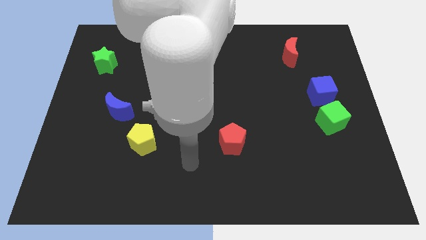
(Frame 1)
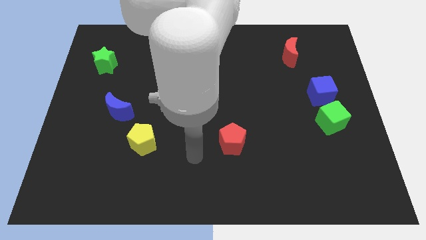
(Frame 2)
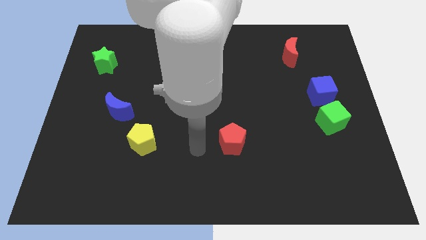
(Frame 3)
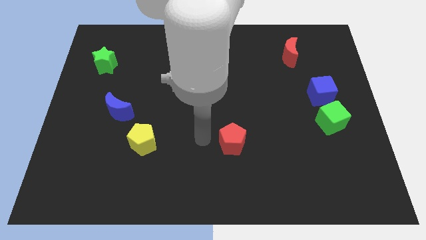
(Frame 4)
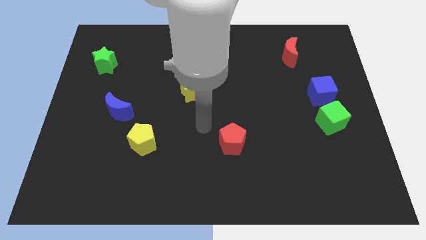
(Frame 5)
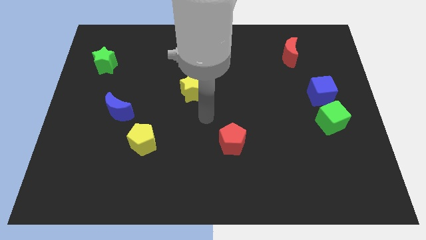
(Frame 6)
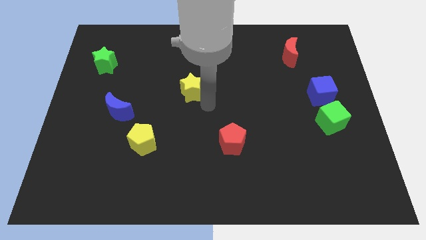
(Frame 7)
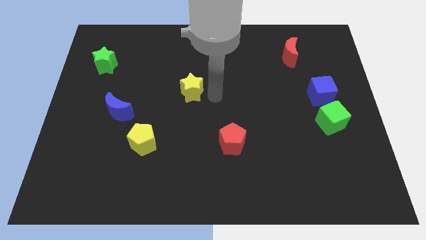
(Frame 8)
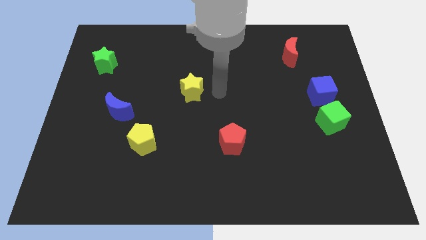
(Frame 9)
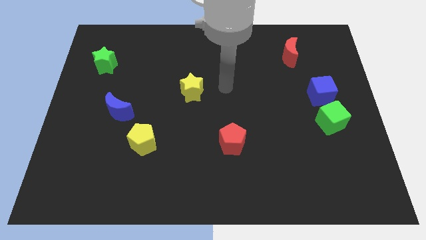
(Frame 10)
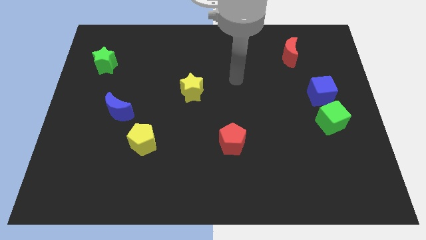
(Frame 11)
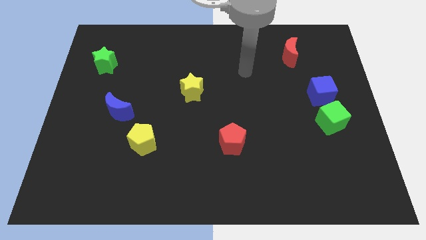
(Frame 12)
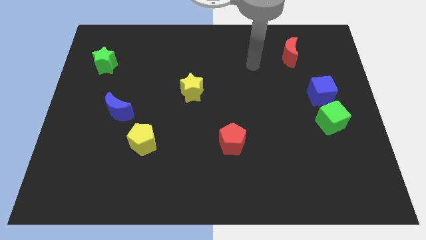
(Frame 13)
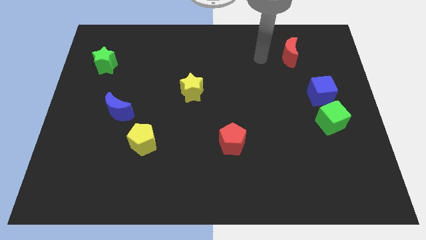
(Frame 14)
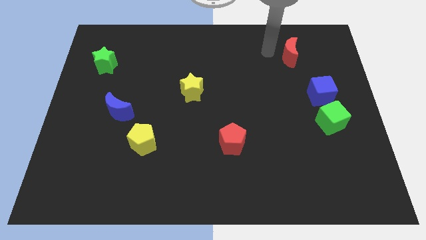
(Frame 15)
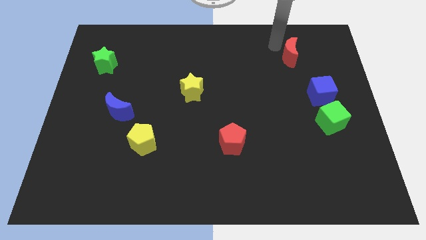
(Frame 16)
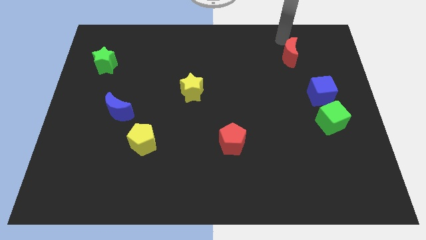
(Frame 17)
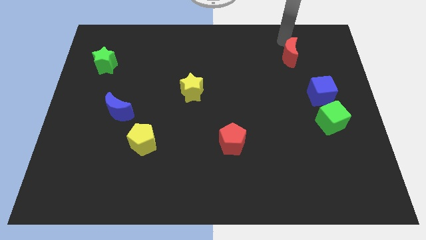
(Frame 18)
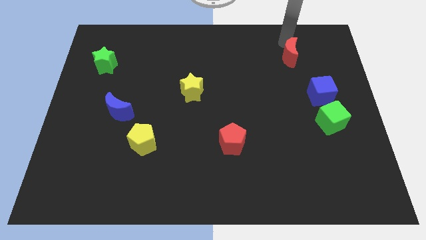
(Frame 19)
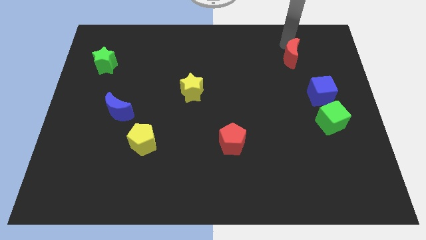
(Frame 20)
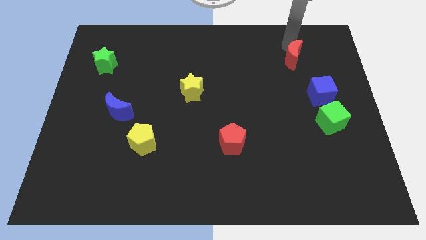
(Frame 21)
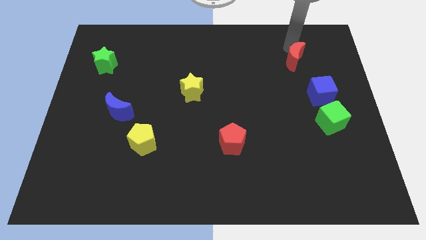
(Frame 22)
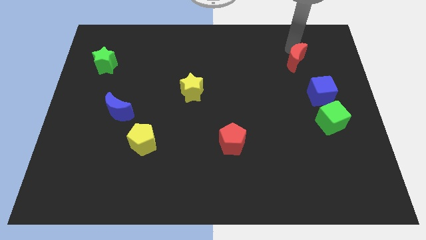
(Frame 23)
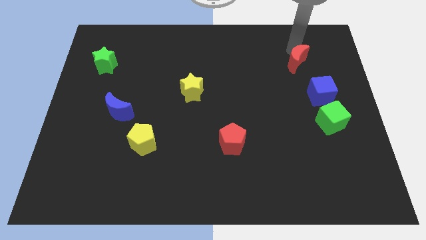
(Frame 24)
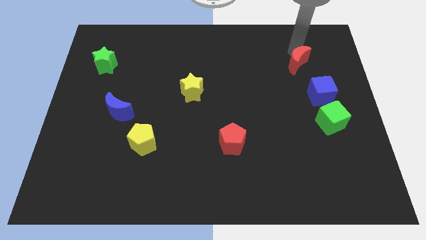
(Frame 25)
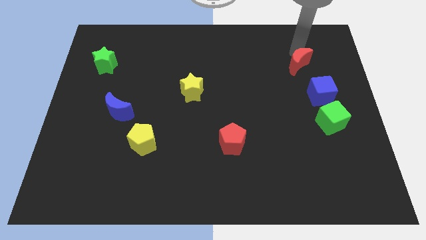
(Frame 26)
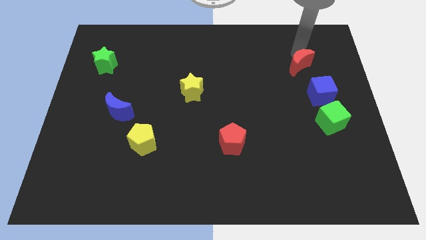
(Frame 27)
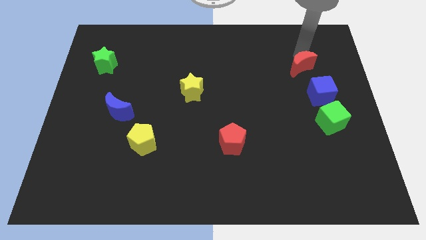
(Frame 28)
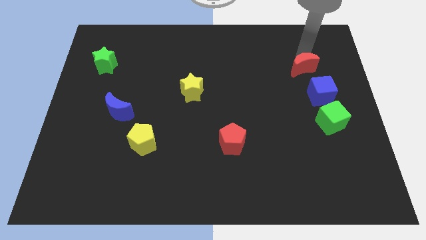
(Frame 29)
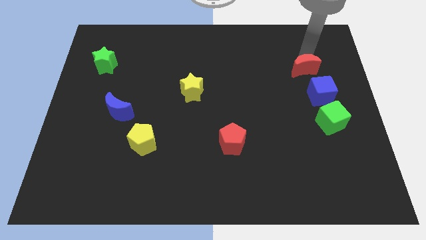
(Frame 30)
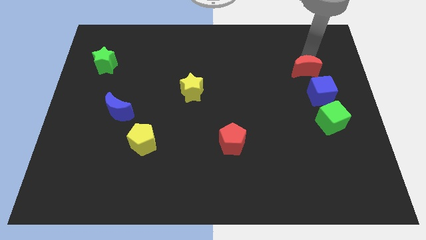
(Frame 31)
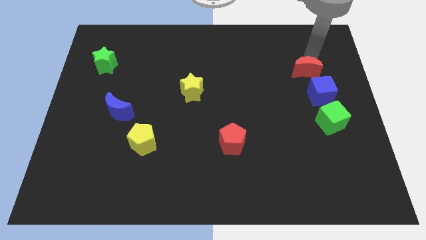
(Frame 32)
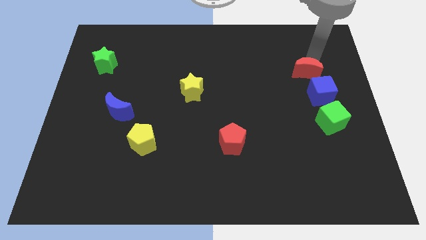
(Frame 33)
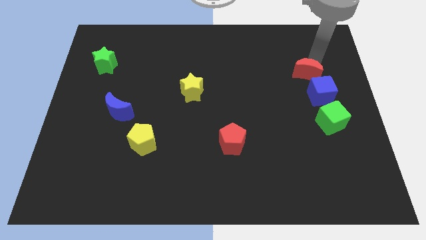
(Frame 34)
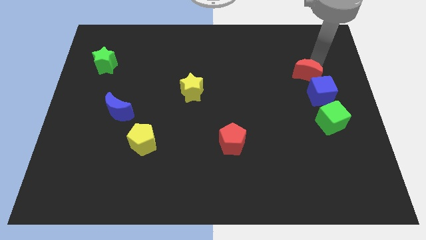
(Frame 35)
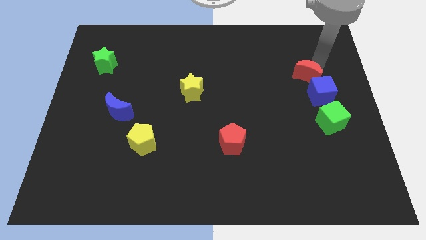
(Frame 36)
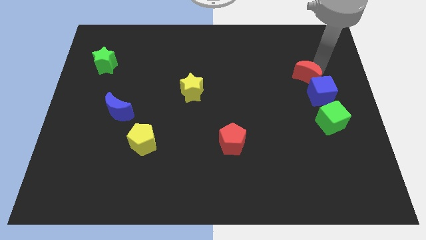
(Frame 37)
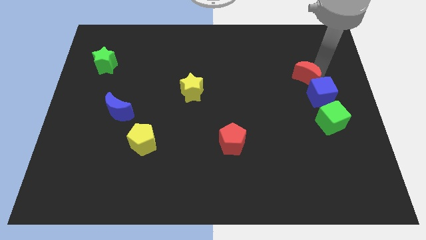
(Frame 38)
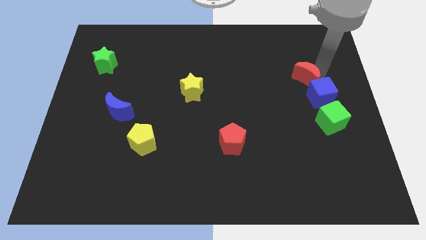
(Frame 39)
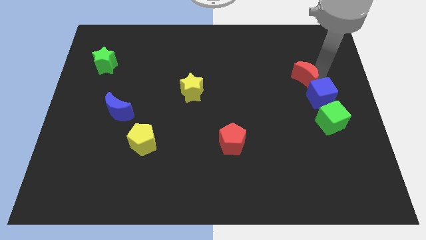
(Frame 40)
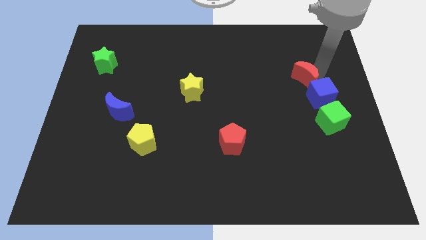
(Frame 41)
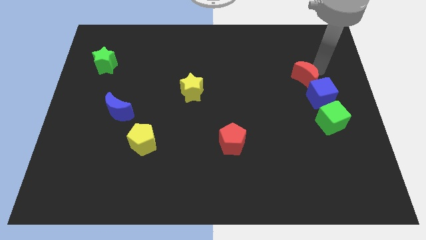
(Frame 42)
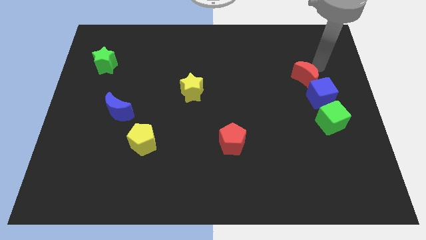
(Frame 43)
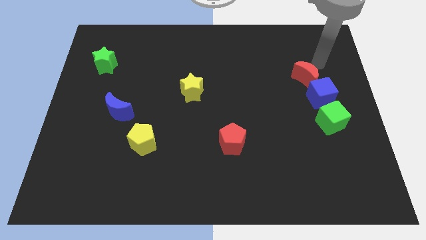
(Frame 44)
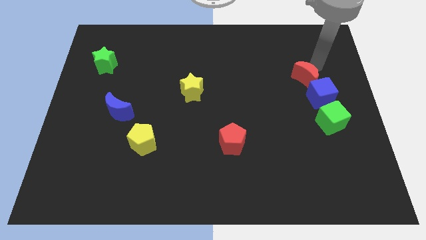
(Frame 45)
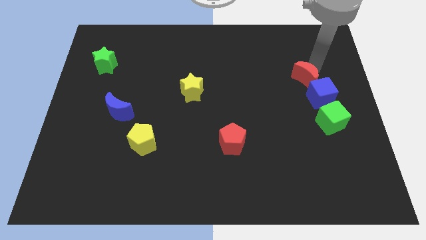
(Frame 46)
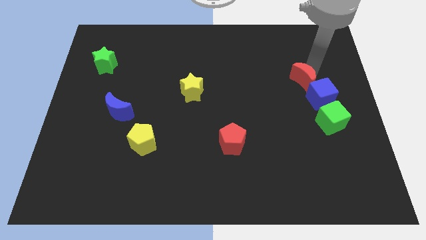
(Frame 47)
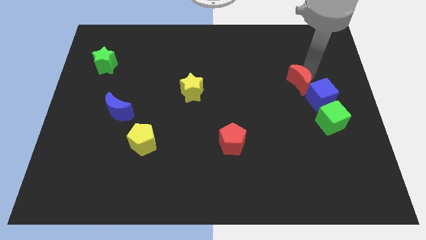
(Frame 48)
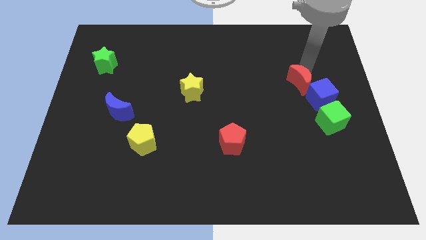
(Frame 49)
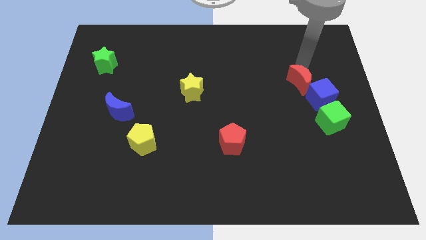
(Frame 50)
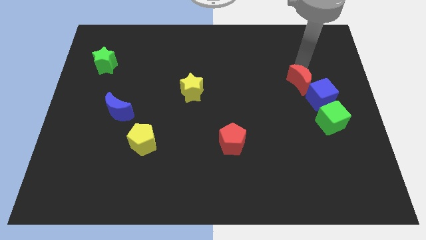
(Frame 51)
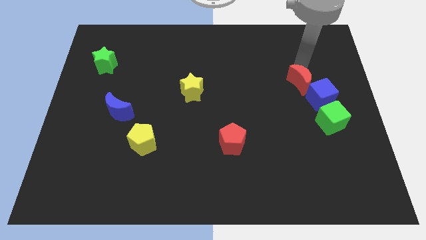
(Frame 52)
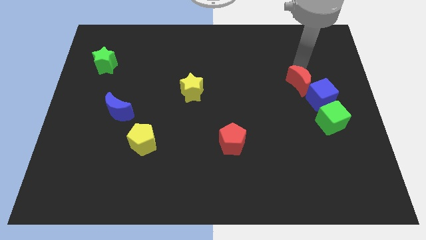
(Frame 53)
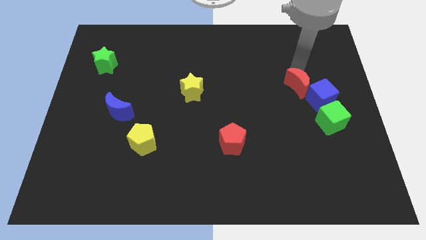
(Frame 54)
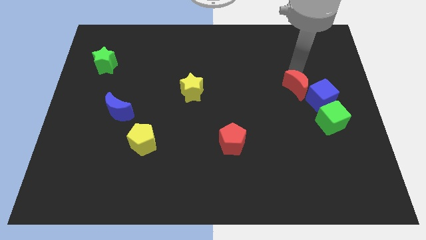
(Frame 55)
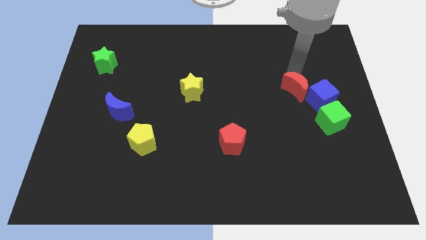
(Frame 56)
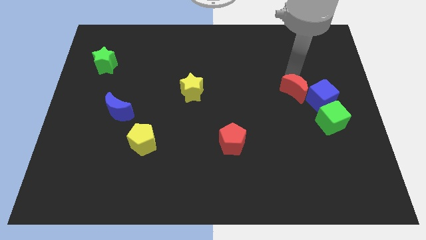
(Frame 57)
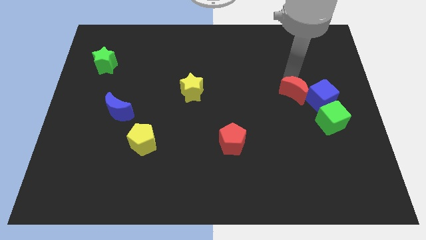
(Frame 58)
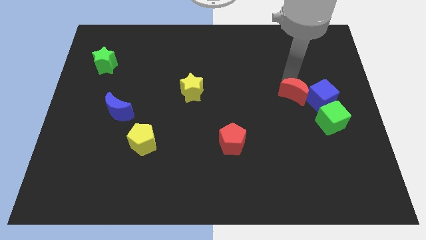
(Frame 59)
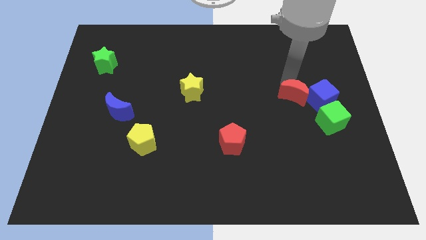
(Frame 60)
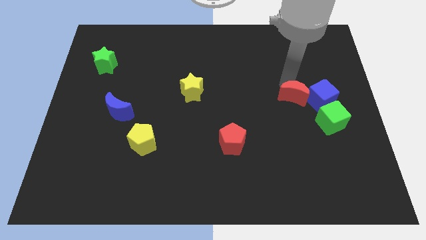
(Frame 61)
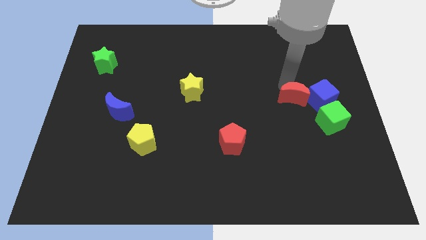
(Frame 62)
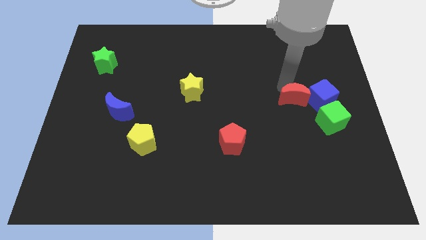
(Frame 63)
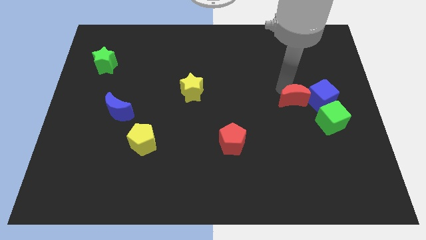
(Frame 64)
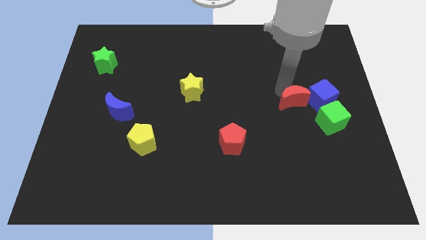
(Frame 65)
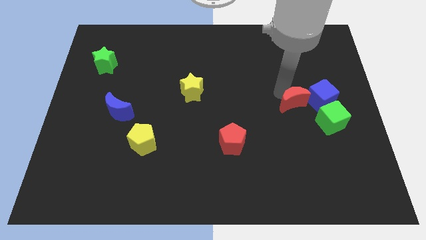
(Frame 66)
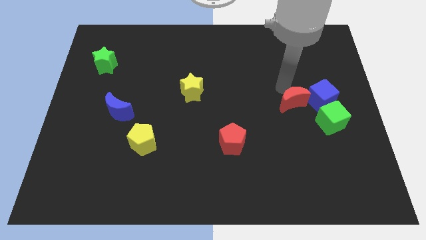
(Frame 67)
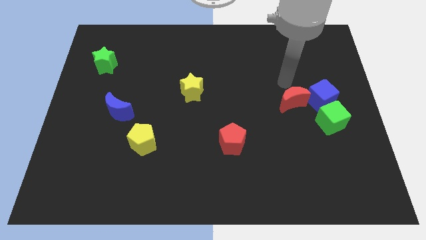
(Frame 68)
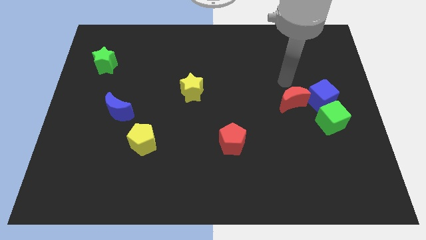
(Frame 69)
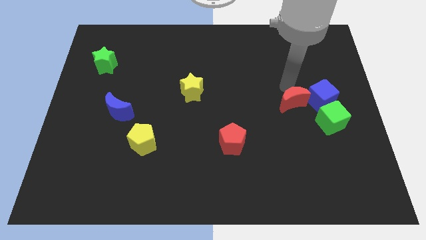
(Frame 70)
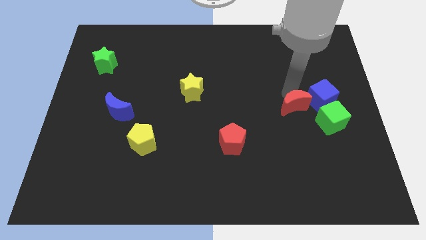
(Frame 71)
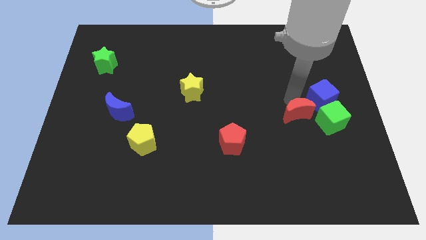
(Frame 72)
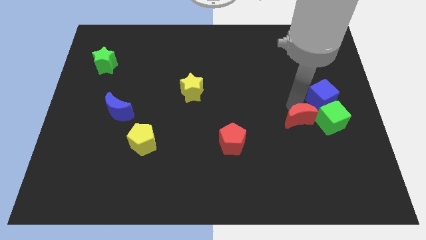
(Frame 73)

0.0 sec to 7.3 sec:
move the red moon down

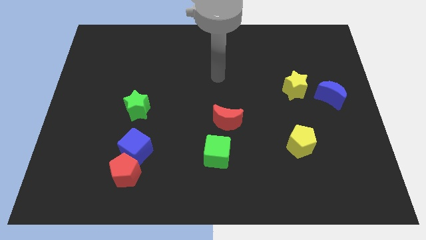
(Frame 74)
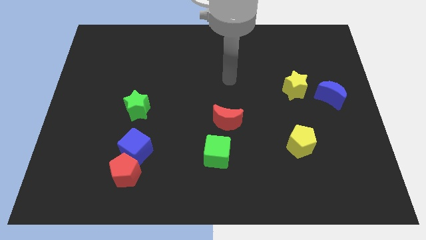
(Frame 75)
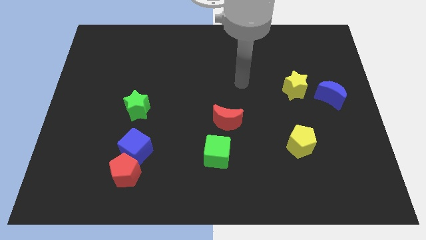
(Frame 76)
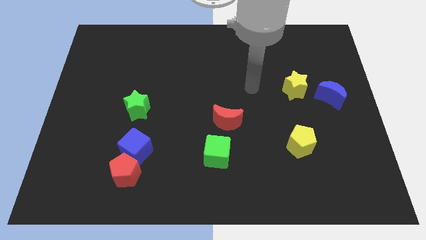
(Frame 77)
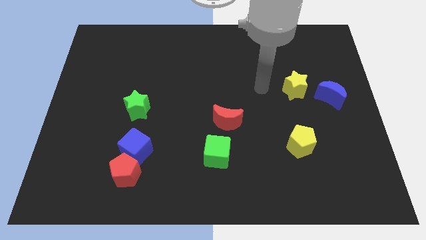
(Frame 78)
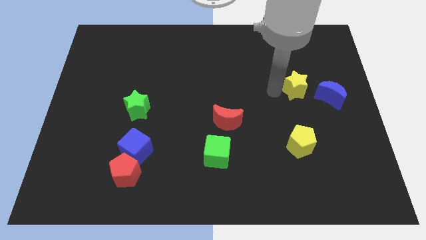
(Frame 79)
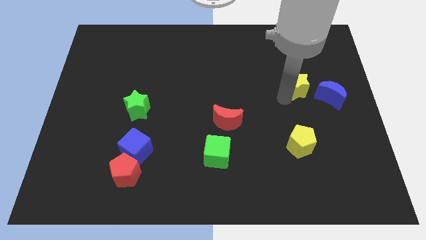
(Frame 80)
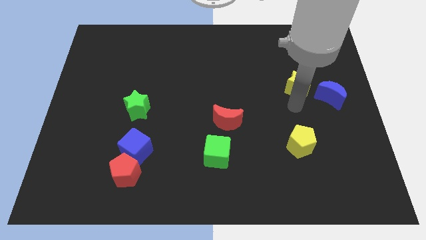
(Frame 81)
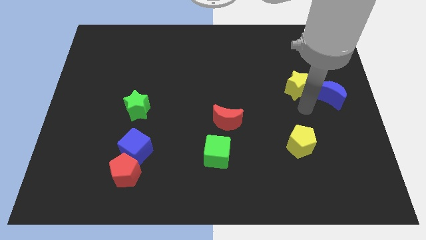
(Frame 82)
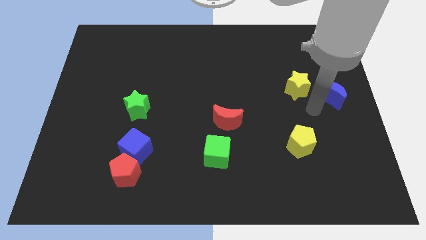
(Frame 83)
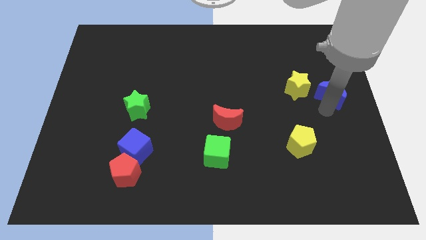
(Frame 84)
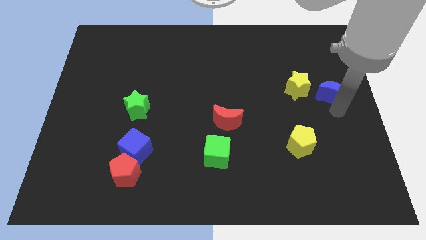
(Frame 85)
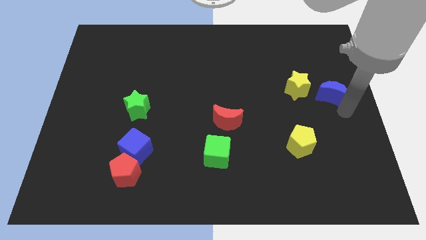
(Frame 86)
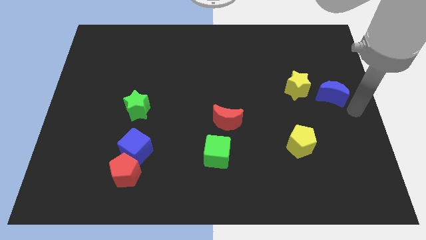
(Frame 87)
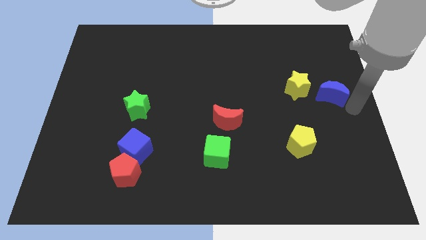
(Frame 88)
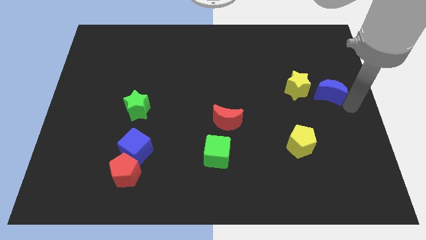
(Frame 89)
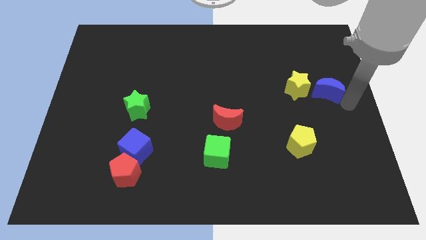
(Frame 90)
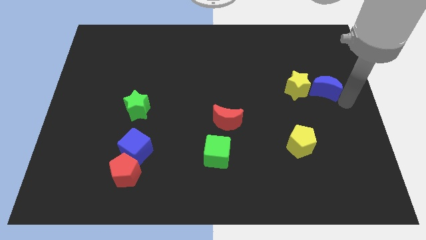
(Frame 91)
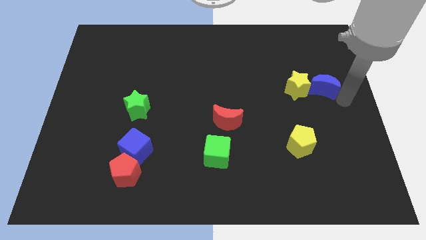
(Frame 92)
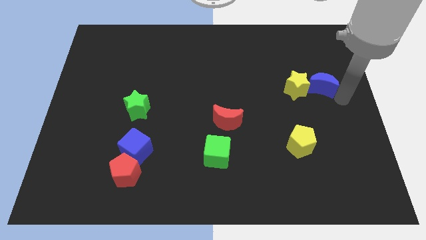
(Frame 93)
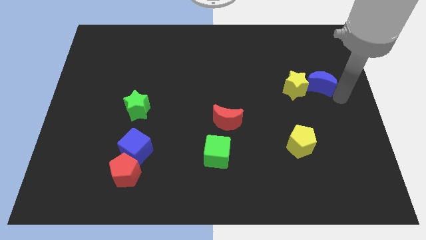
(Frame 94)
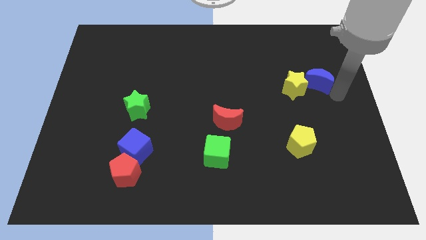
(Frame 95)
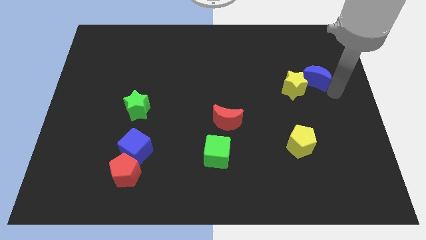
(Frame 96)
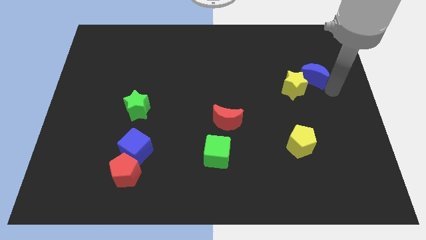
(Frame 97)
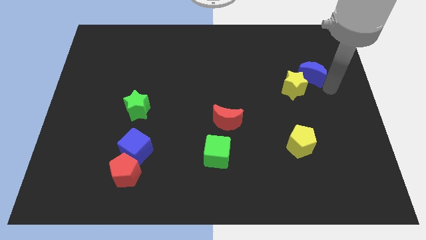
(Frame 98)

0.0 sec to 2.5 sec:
slide the blue moon up and then left somewhat
